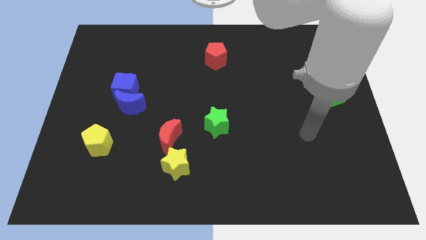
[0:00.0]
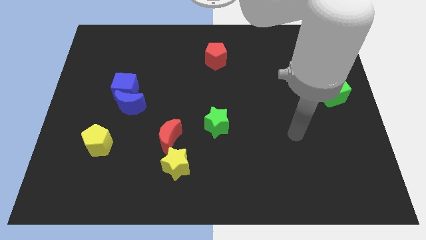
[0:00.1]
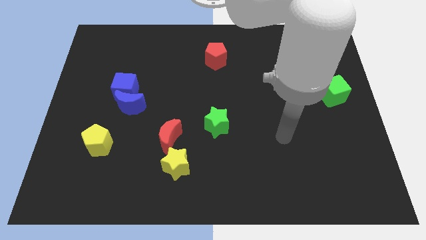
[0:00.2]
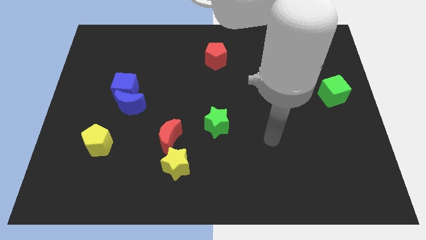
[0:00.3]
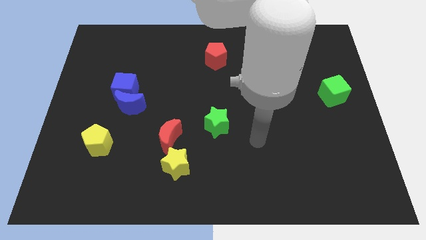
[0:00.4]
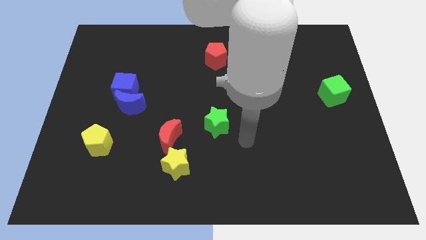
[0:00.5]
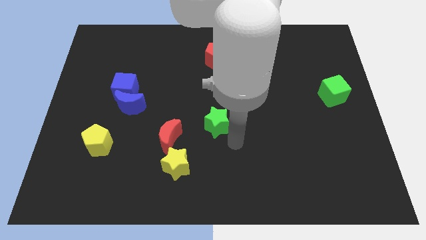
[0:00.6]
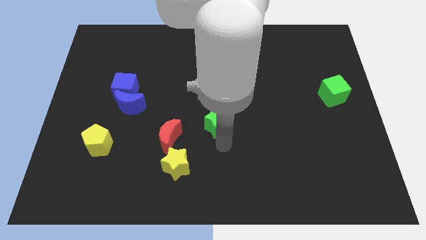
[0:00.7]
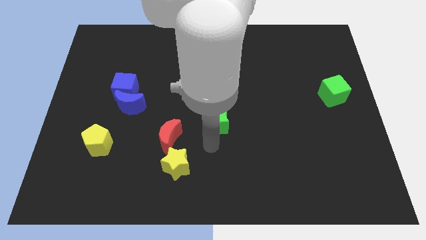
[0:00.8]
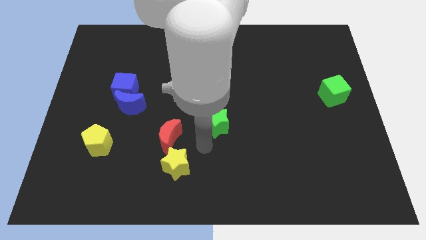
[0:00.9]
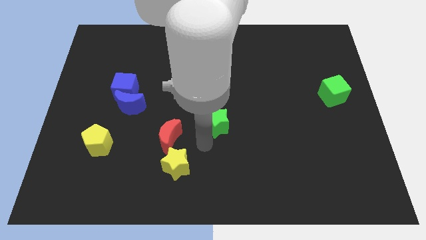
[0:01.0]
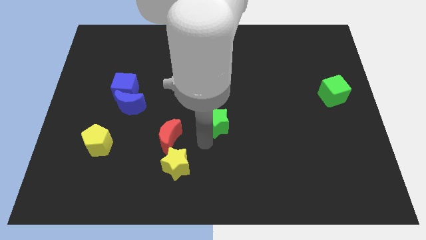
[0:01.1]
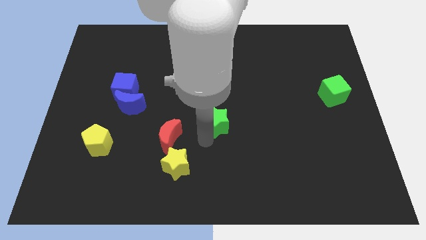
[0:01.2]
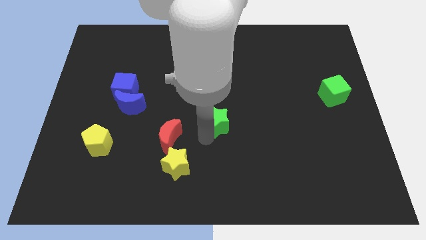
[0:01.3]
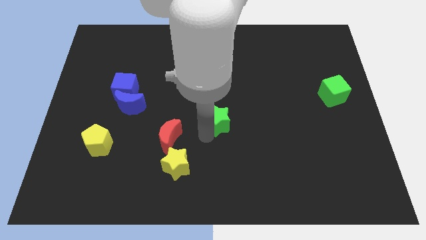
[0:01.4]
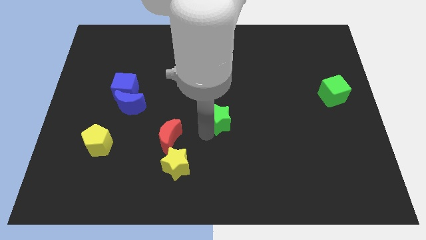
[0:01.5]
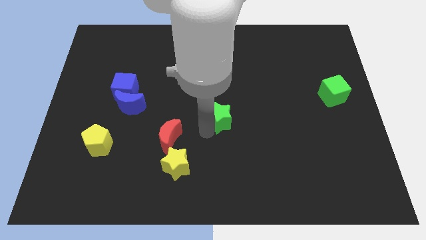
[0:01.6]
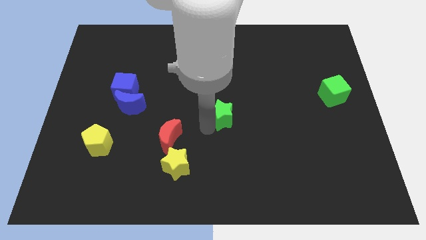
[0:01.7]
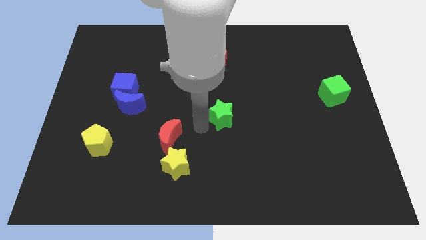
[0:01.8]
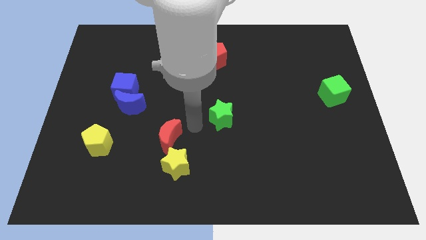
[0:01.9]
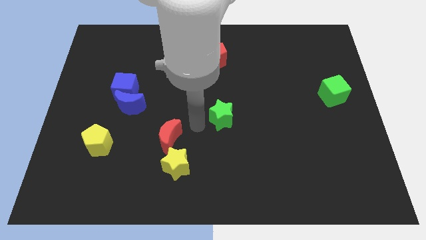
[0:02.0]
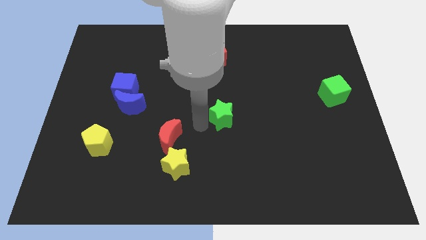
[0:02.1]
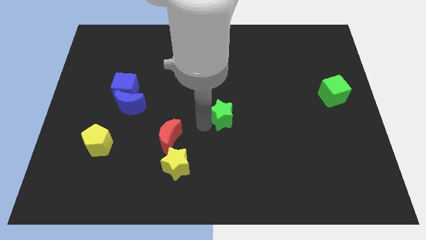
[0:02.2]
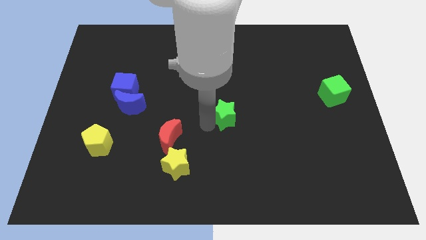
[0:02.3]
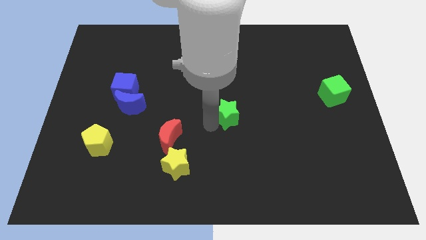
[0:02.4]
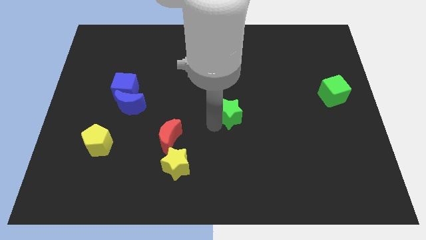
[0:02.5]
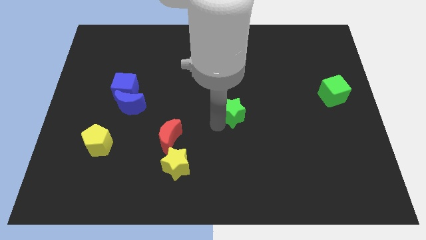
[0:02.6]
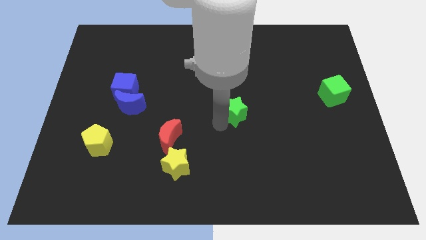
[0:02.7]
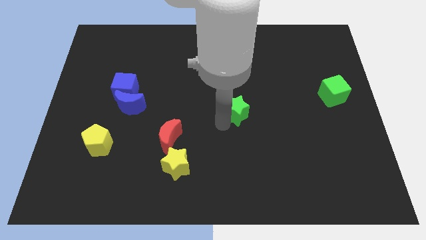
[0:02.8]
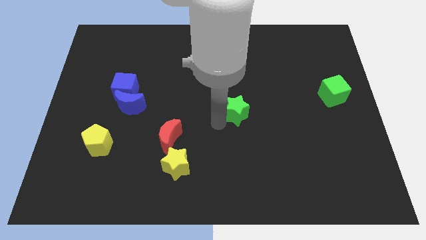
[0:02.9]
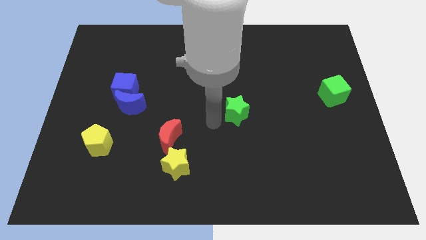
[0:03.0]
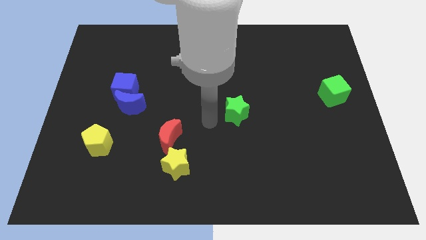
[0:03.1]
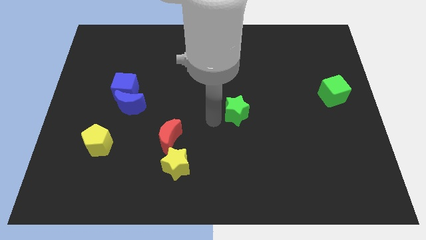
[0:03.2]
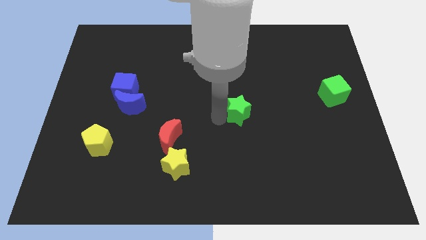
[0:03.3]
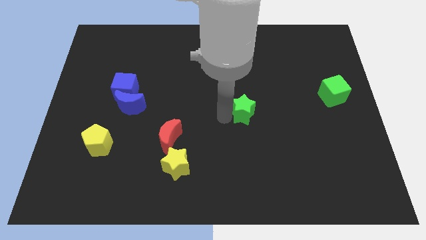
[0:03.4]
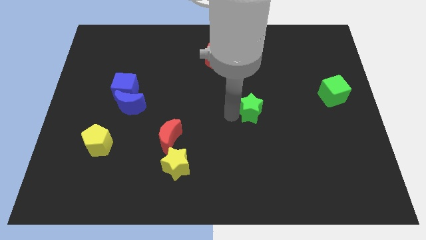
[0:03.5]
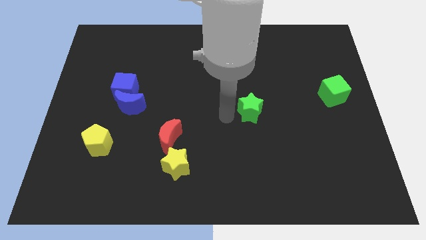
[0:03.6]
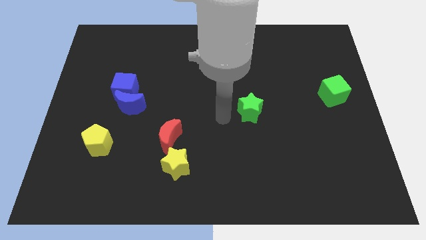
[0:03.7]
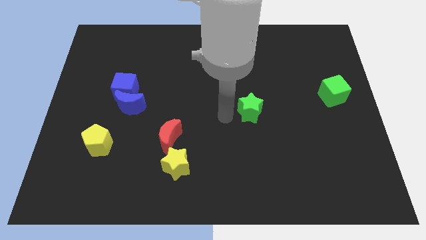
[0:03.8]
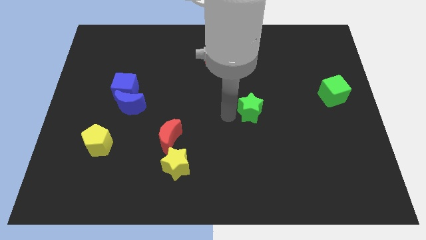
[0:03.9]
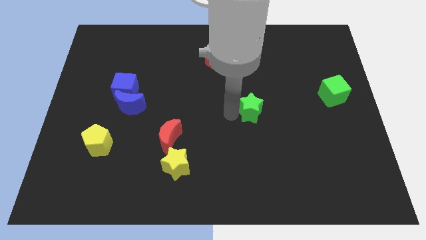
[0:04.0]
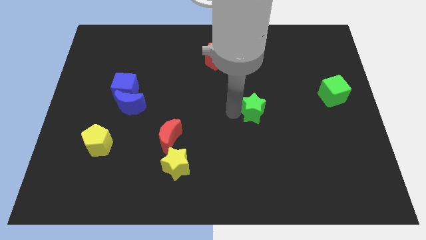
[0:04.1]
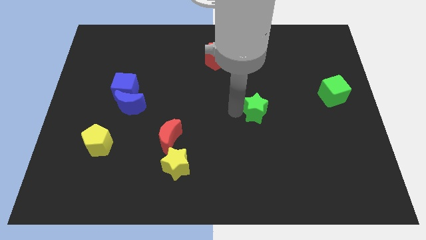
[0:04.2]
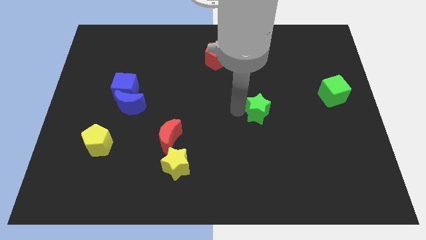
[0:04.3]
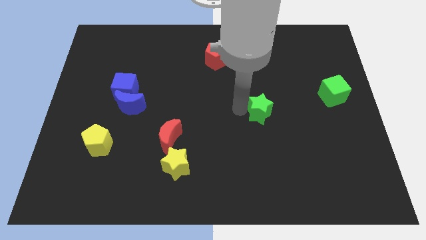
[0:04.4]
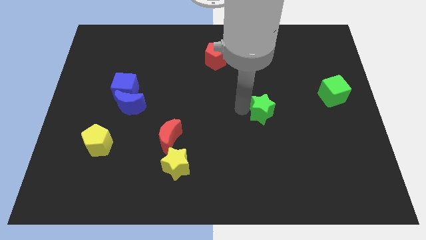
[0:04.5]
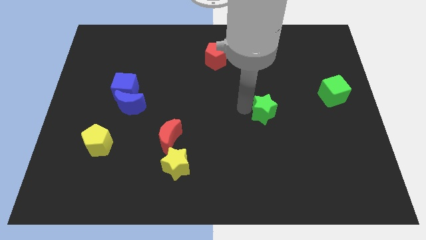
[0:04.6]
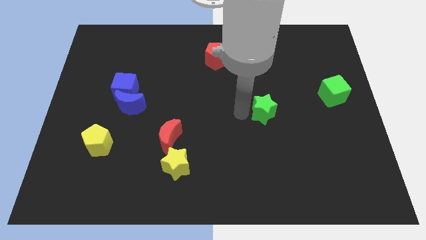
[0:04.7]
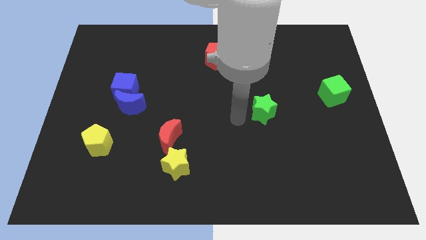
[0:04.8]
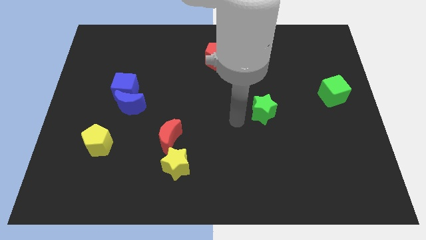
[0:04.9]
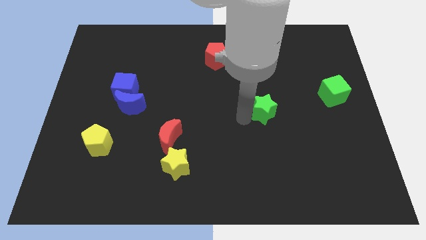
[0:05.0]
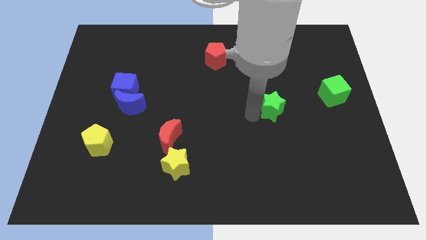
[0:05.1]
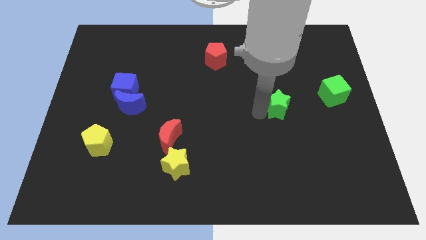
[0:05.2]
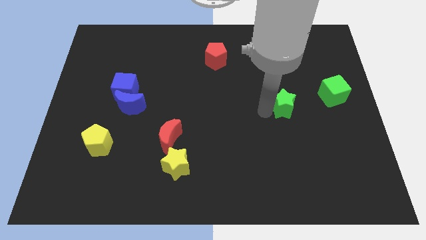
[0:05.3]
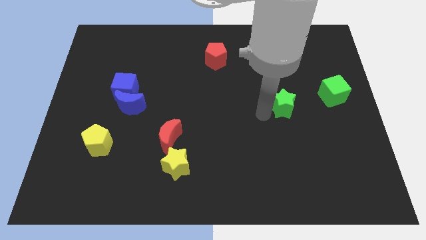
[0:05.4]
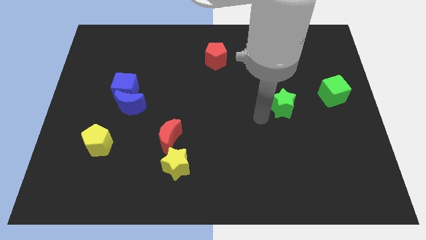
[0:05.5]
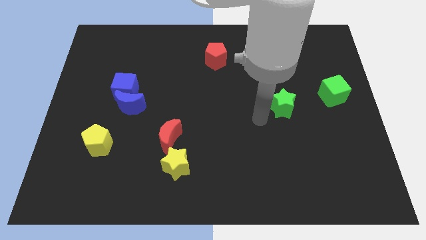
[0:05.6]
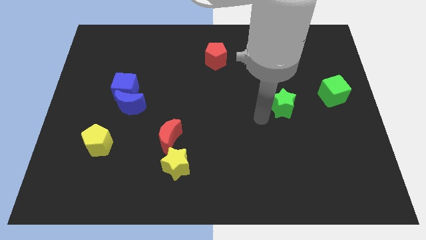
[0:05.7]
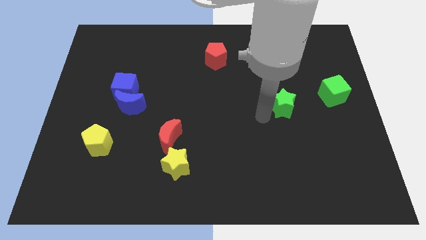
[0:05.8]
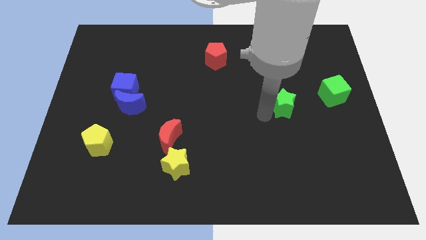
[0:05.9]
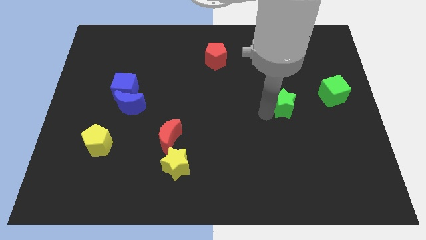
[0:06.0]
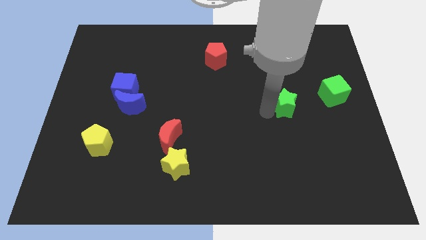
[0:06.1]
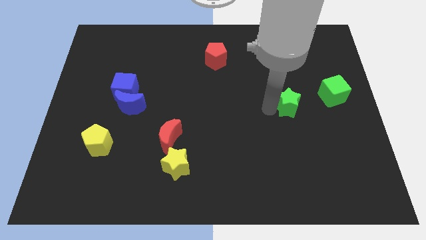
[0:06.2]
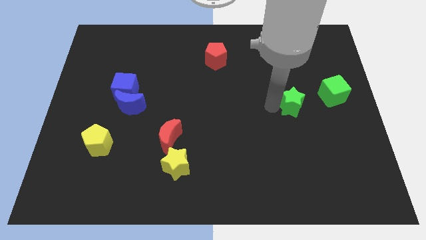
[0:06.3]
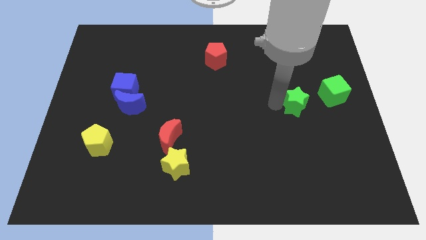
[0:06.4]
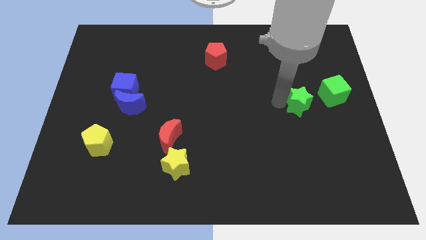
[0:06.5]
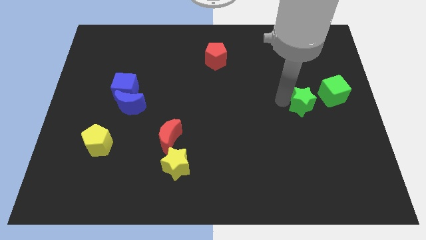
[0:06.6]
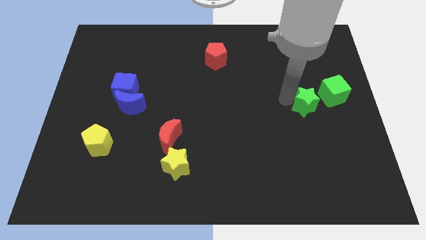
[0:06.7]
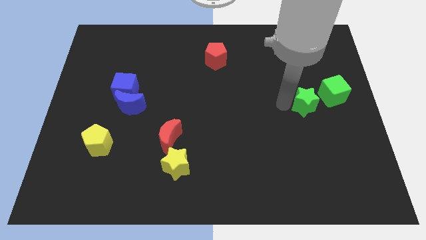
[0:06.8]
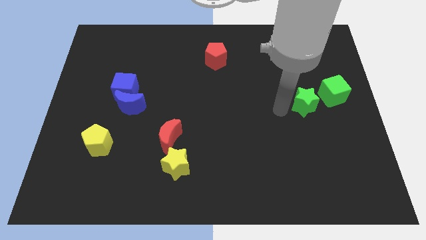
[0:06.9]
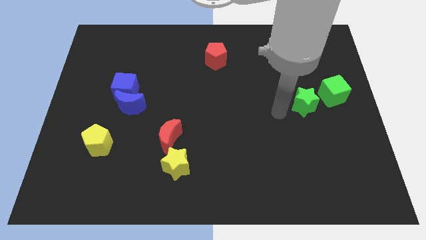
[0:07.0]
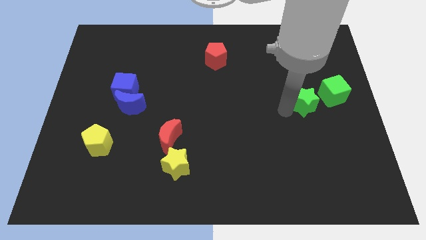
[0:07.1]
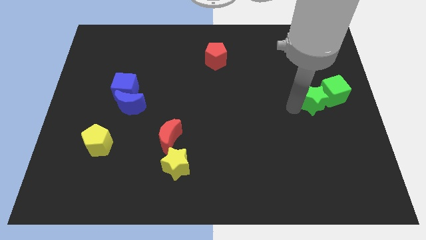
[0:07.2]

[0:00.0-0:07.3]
put the green star to the green cube

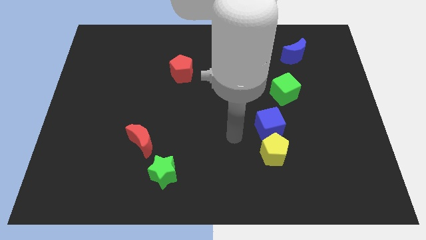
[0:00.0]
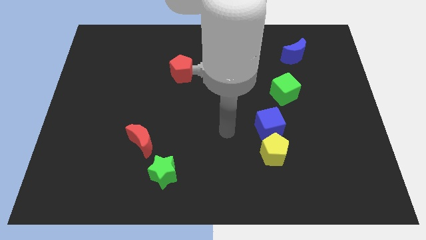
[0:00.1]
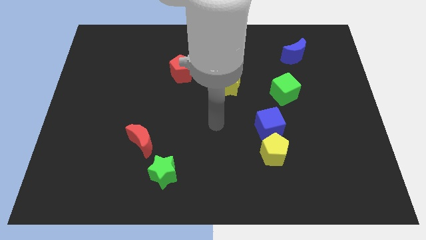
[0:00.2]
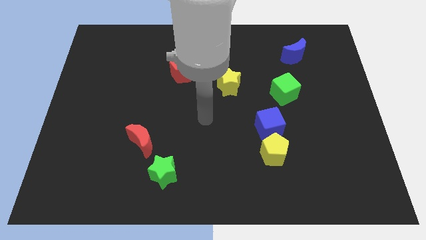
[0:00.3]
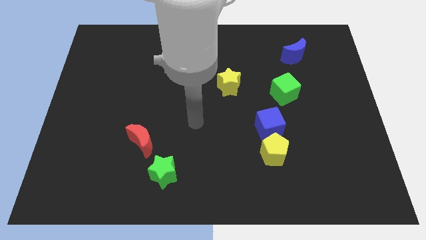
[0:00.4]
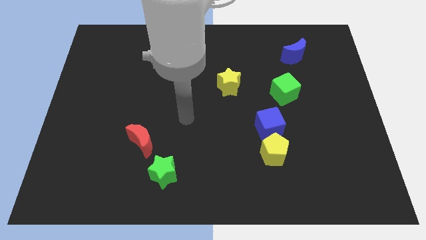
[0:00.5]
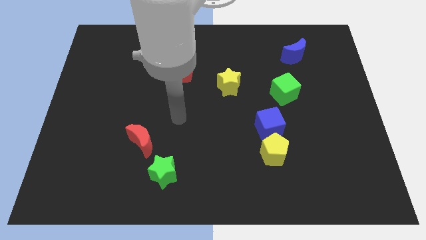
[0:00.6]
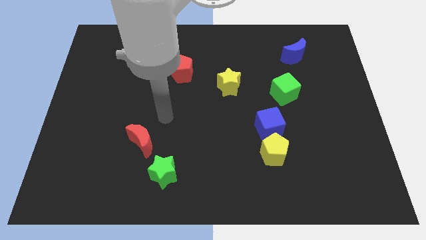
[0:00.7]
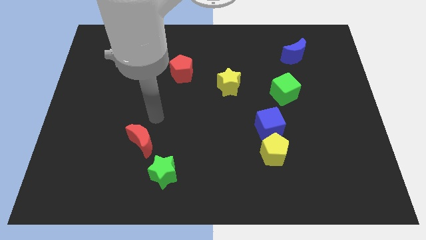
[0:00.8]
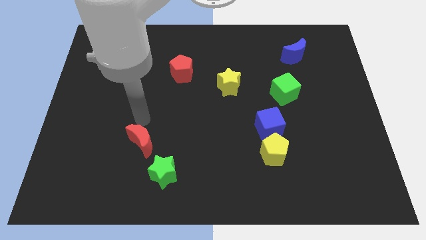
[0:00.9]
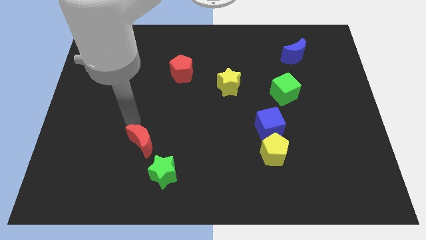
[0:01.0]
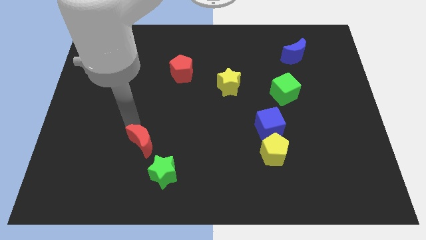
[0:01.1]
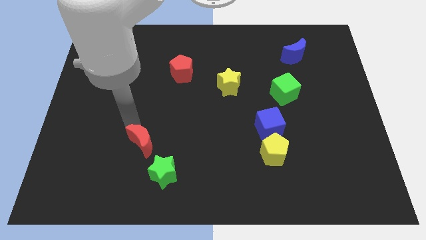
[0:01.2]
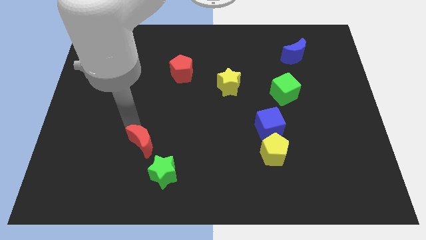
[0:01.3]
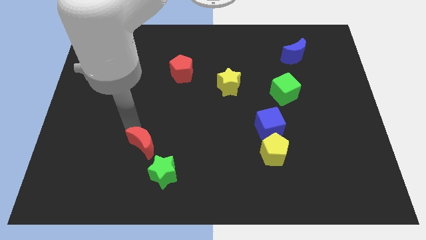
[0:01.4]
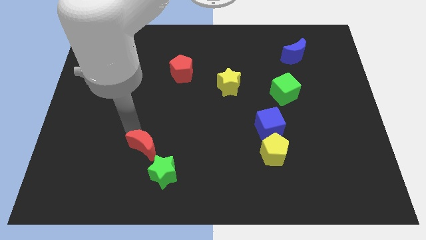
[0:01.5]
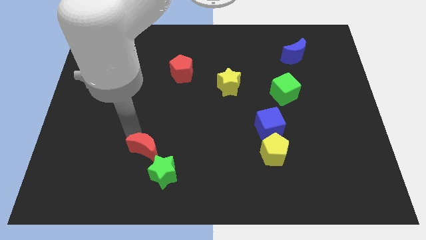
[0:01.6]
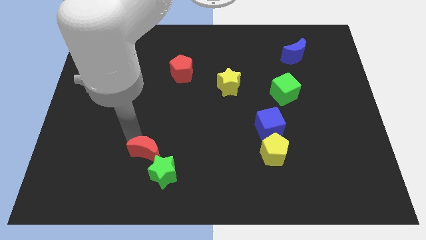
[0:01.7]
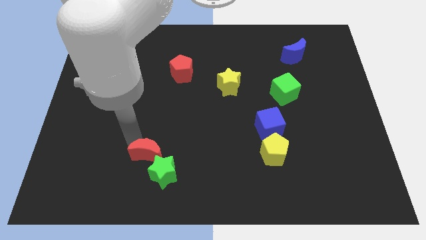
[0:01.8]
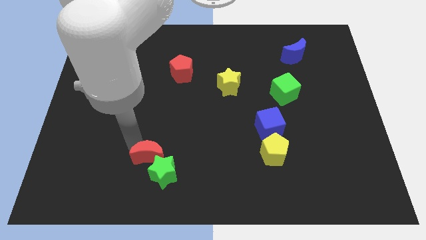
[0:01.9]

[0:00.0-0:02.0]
move the red moon next to the green star
